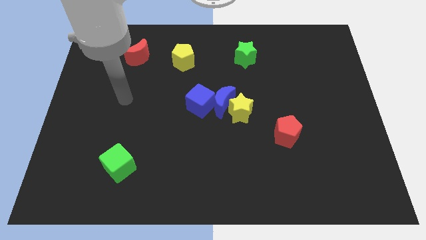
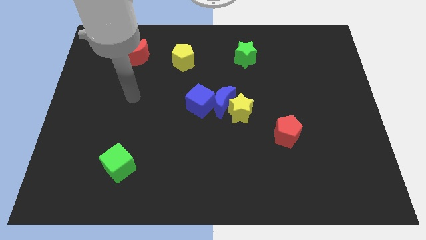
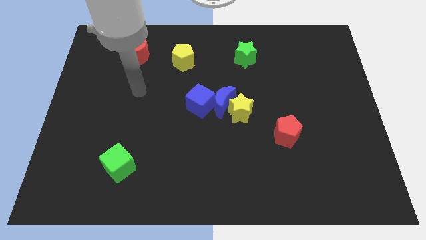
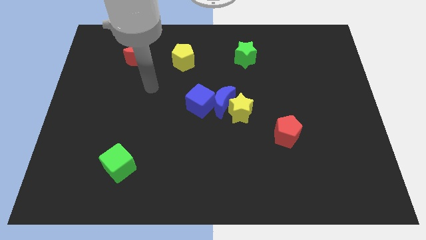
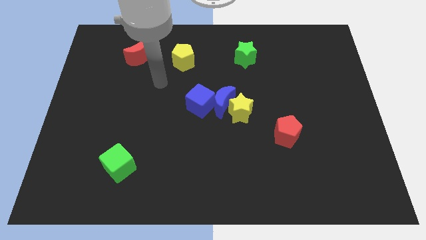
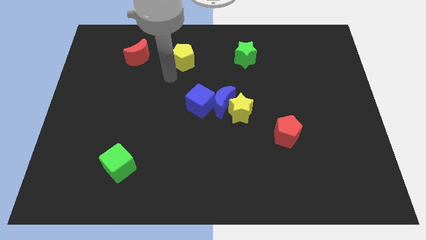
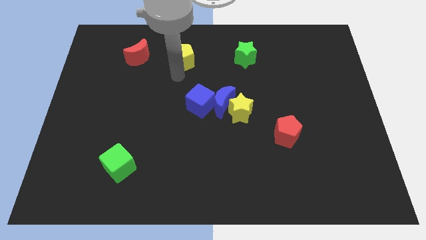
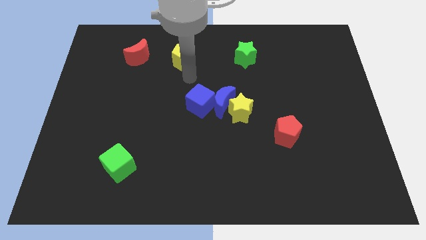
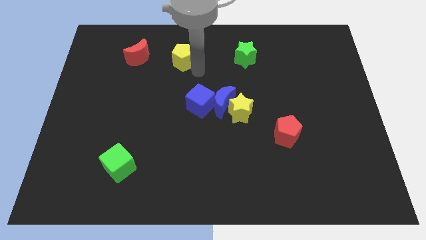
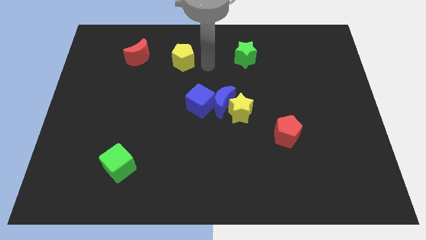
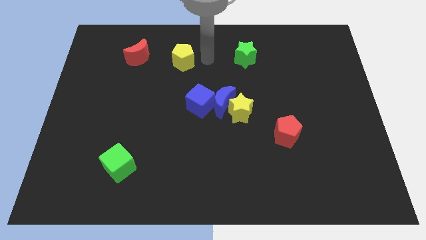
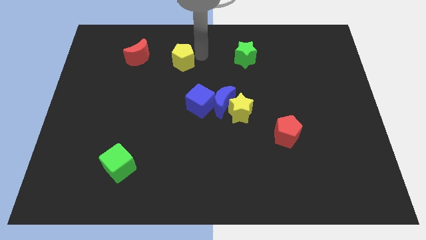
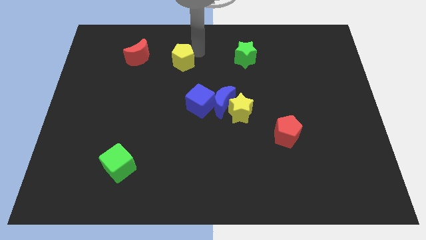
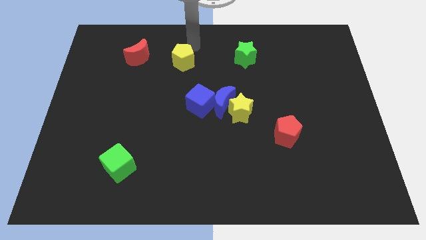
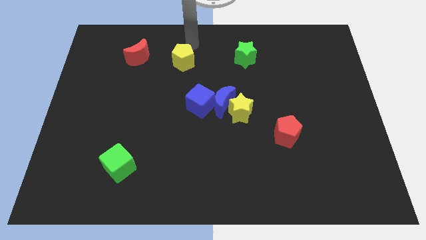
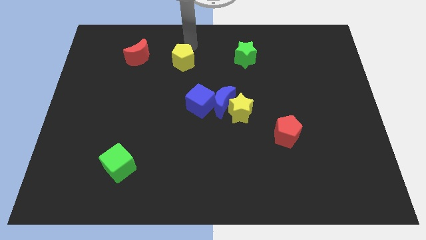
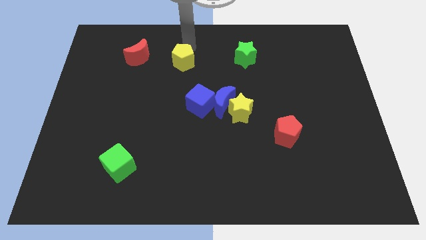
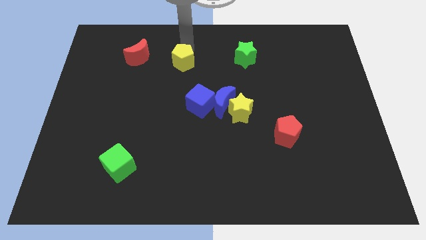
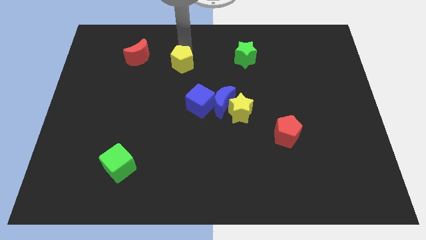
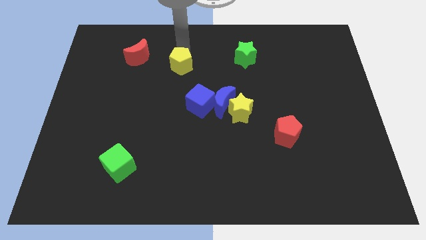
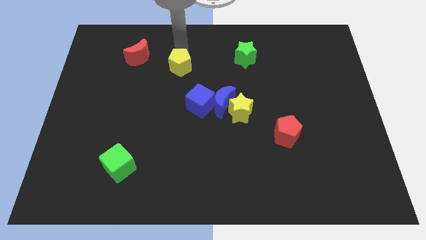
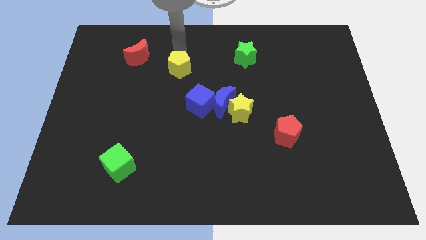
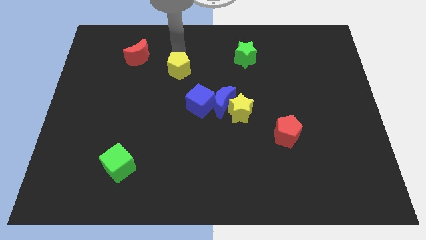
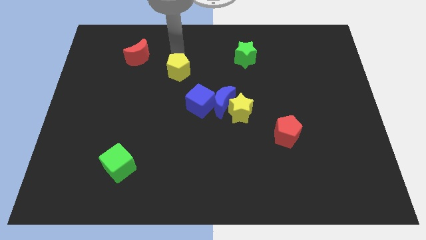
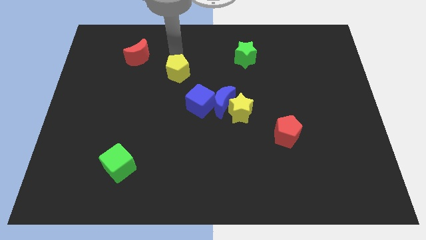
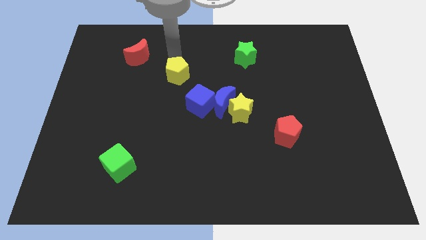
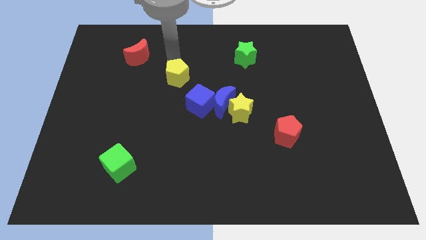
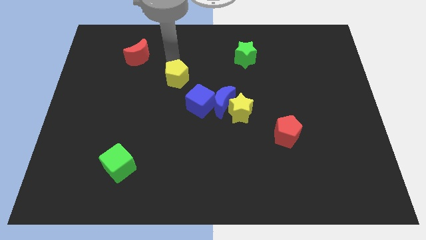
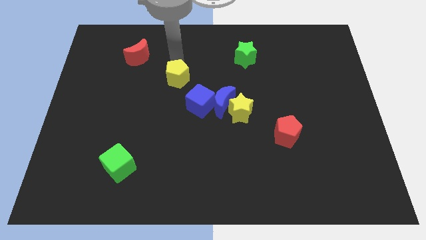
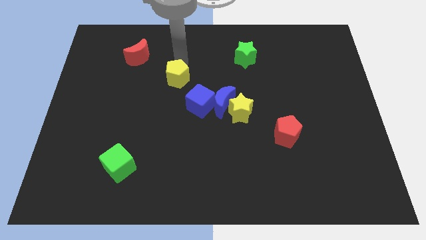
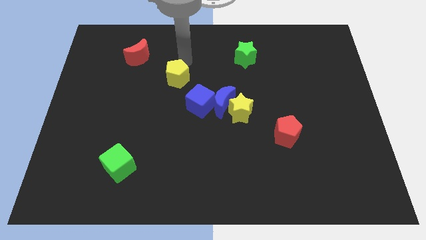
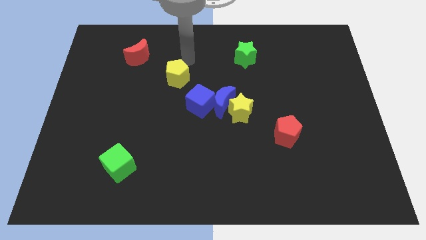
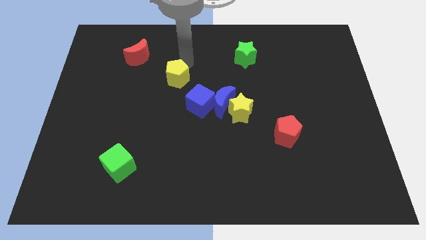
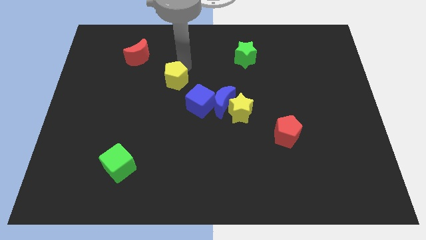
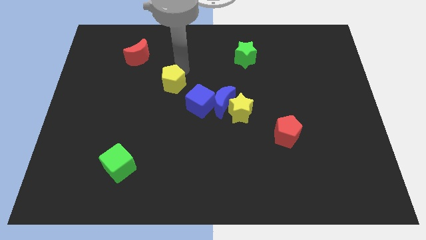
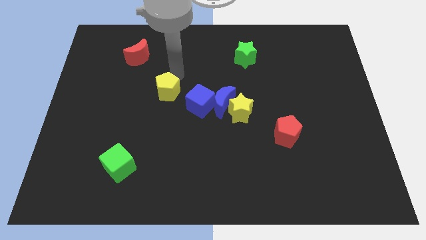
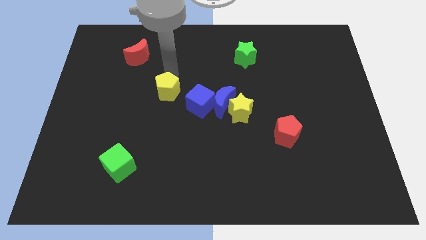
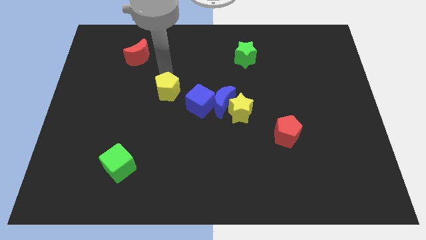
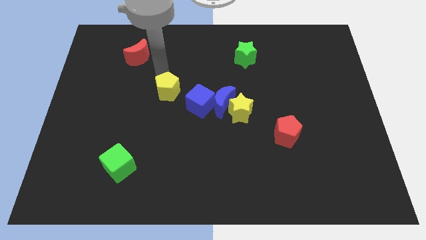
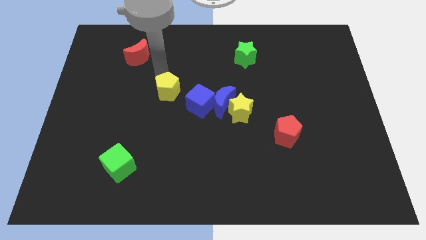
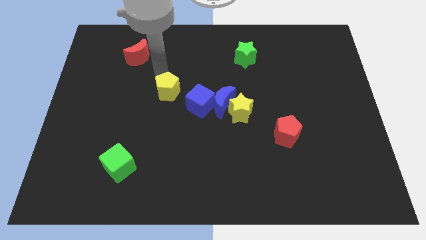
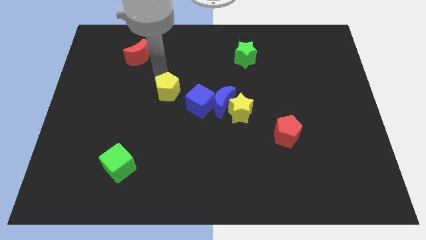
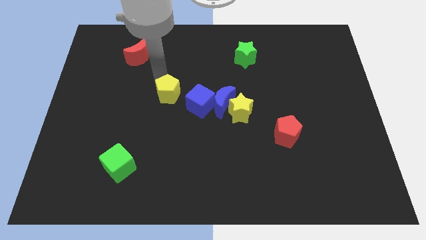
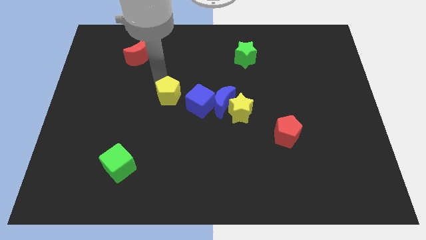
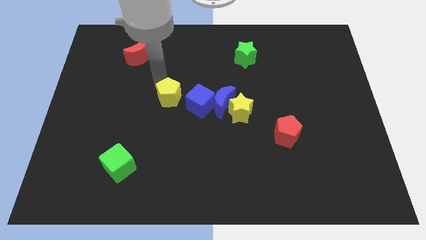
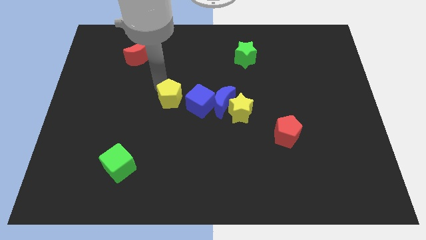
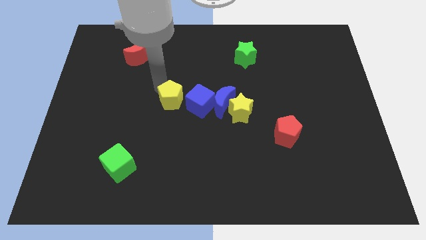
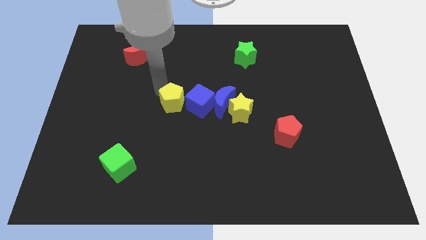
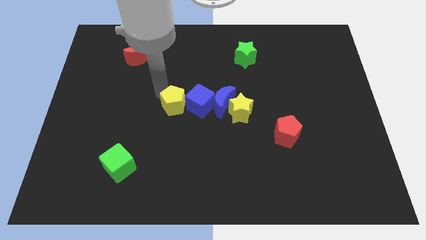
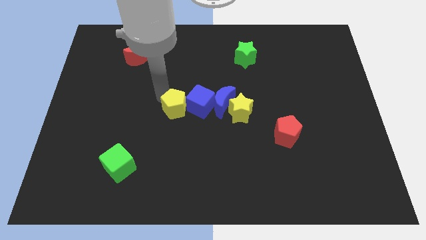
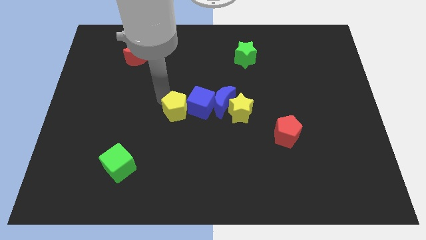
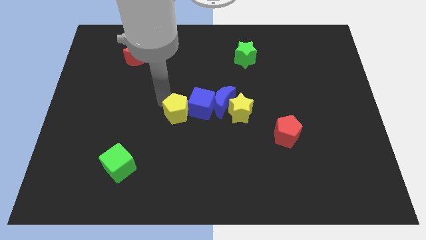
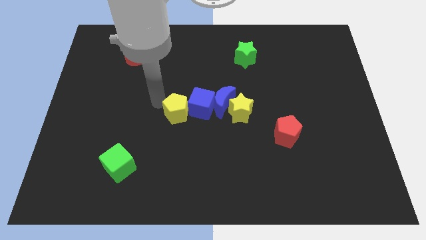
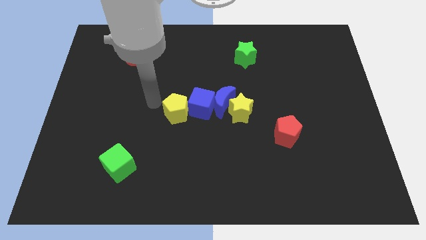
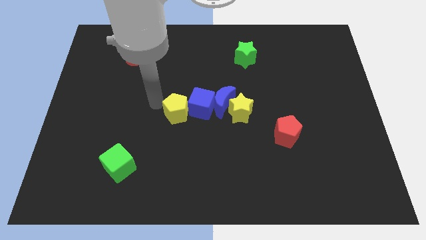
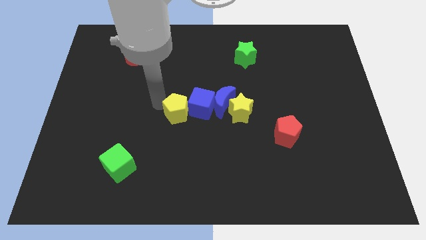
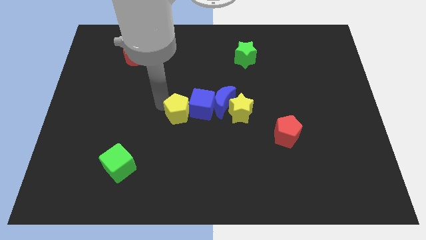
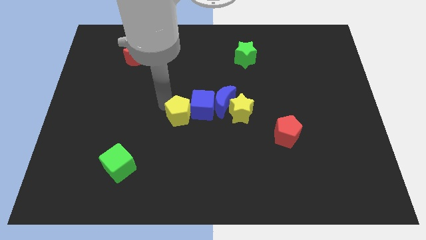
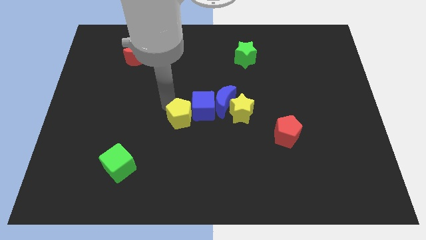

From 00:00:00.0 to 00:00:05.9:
move the yellow pentagon diagonally down and to the left of the blue moon

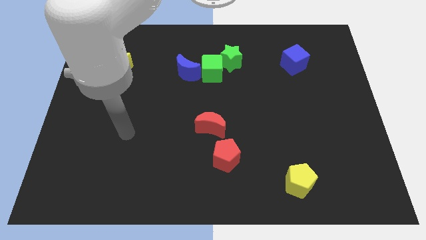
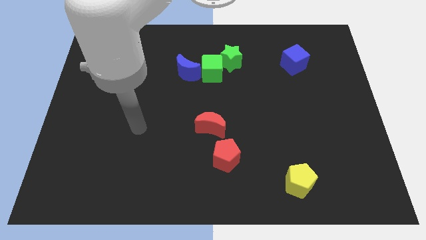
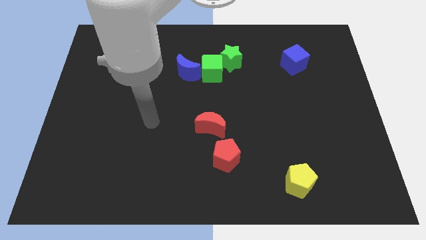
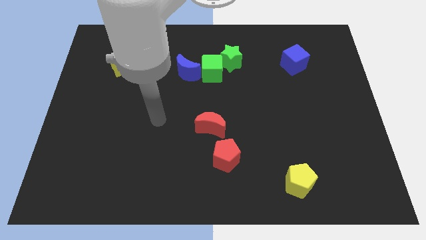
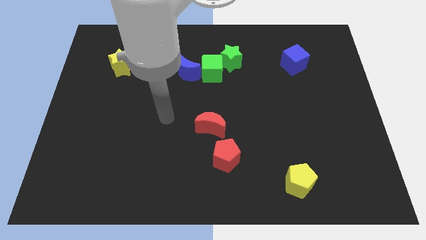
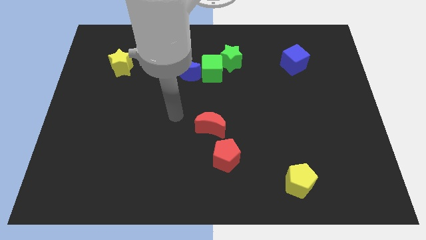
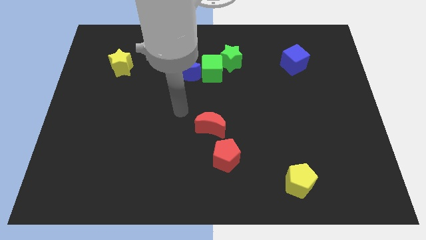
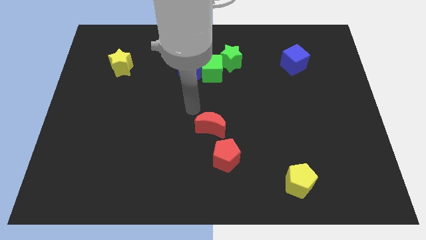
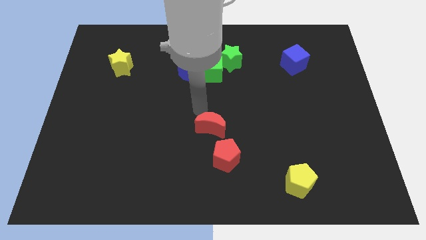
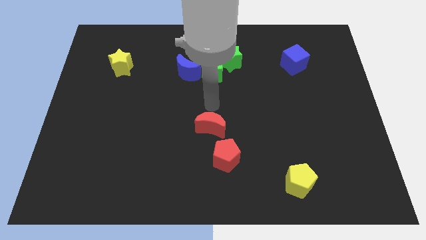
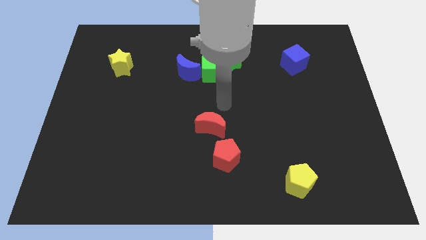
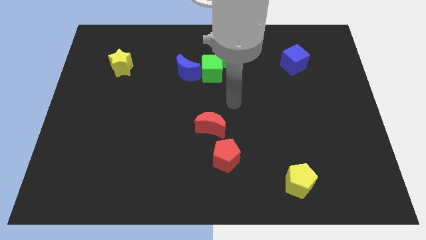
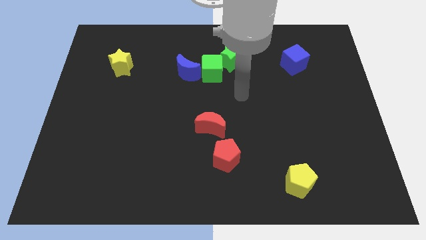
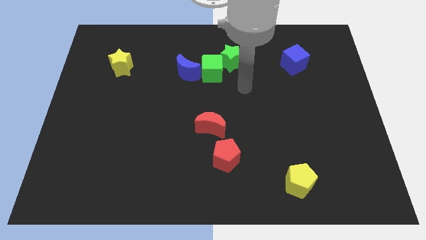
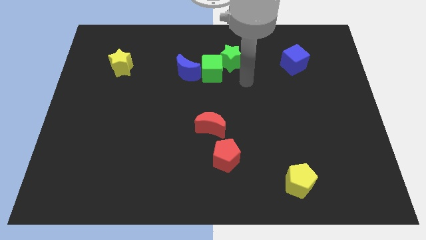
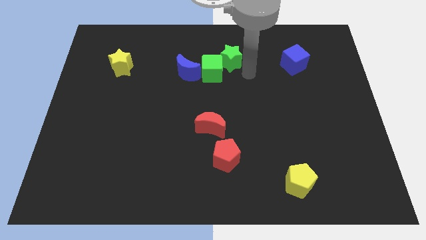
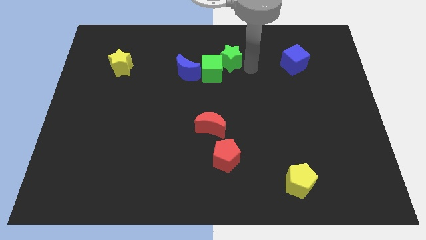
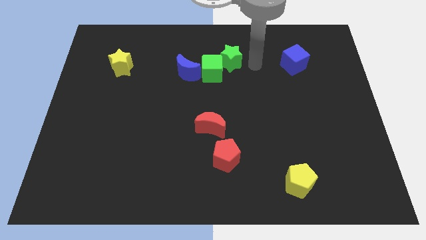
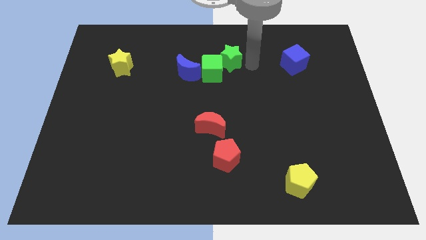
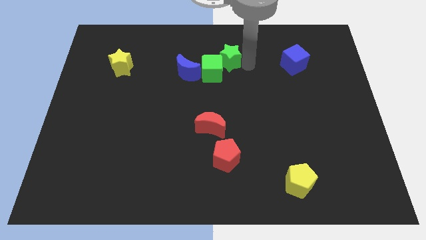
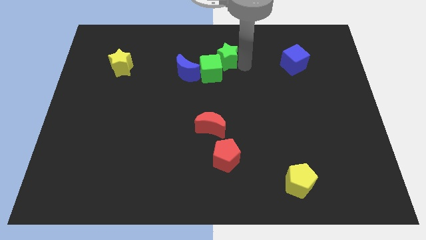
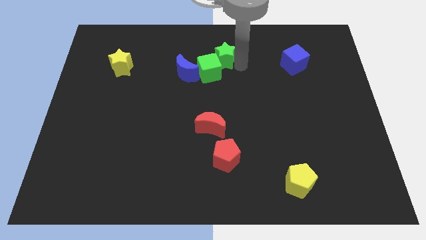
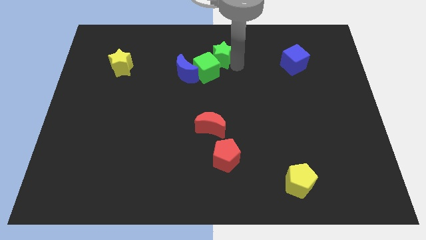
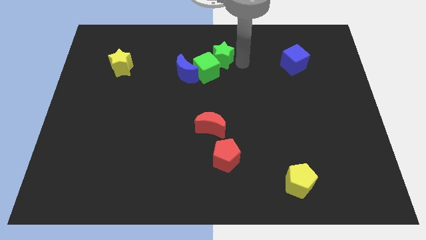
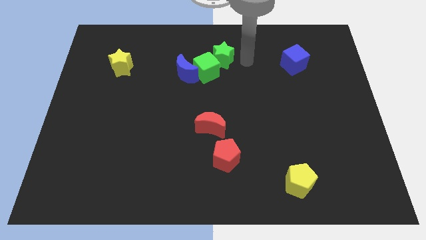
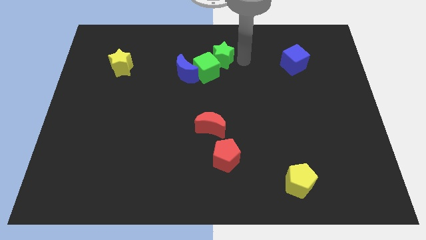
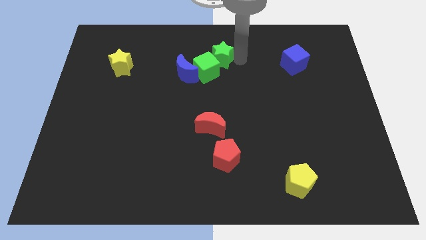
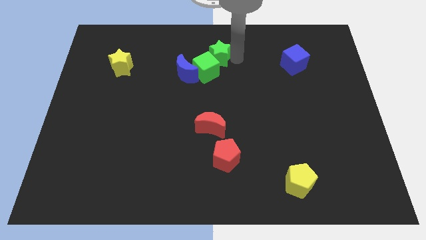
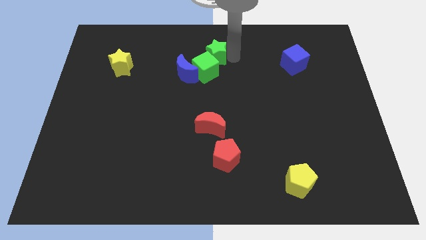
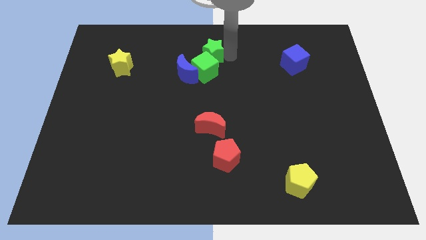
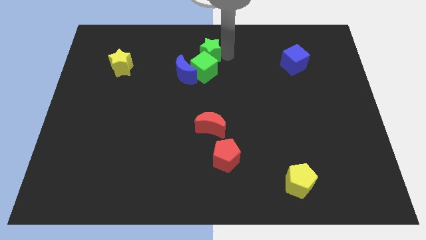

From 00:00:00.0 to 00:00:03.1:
push the green star to the top left side of the green cube
